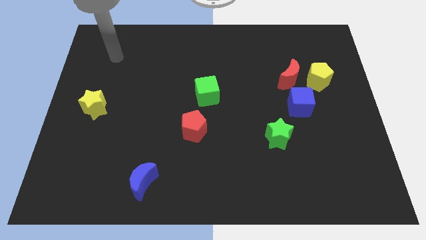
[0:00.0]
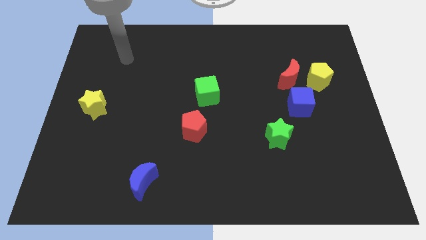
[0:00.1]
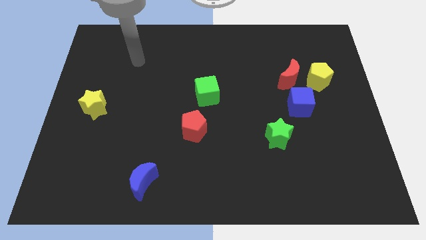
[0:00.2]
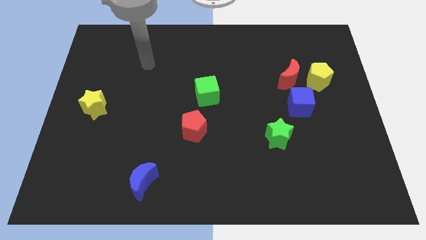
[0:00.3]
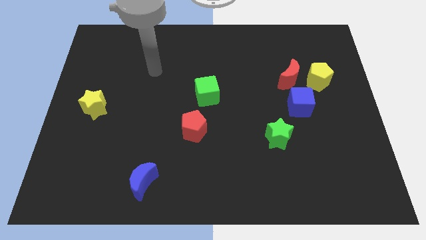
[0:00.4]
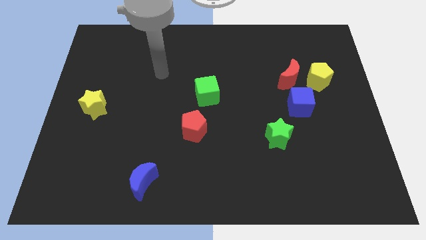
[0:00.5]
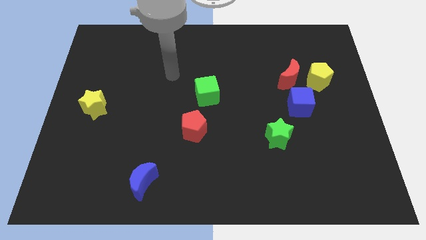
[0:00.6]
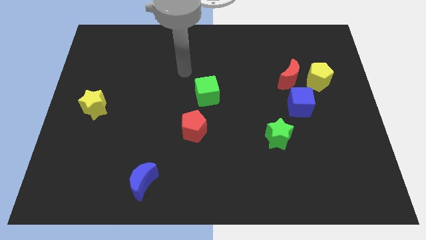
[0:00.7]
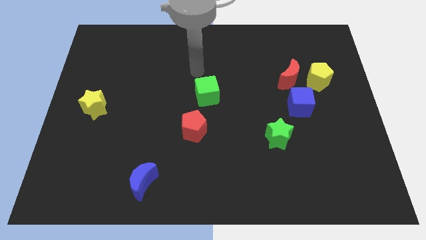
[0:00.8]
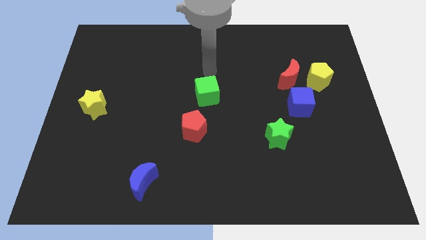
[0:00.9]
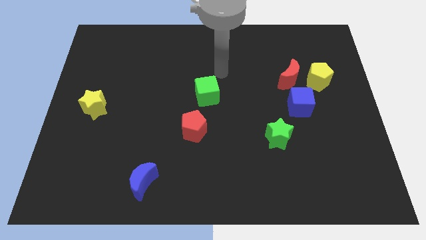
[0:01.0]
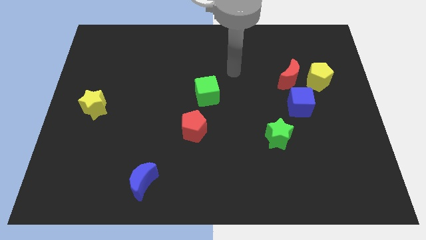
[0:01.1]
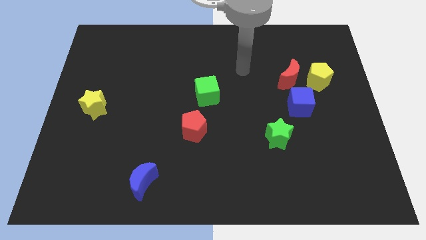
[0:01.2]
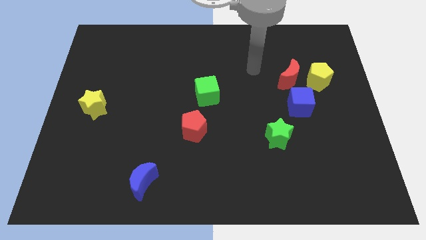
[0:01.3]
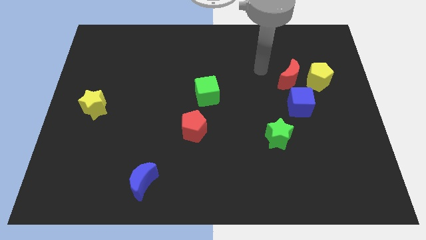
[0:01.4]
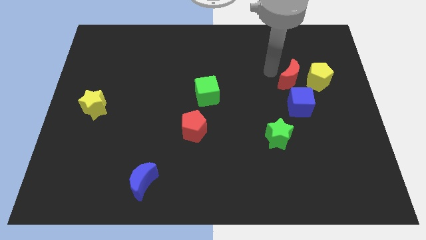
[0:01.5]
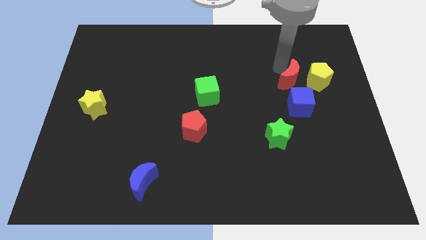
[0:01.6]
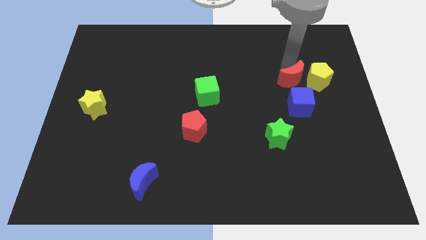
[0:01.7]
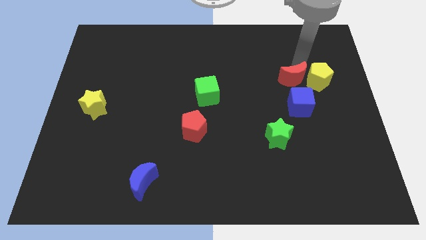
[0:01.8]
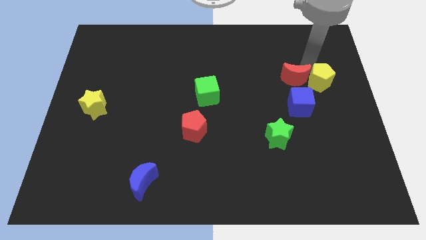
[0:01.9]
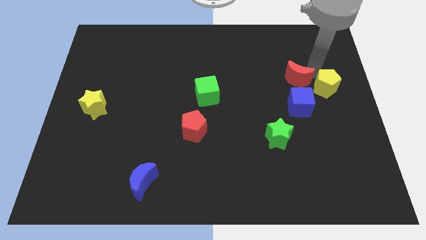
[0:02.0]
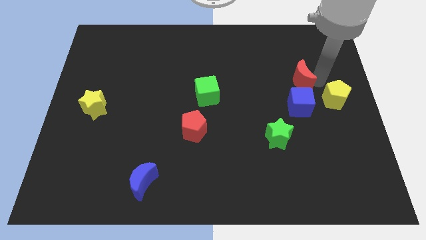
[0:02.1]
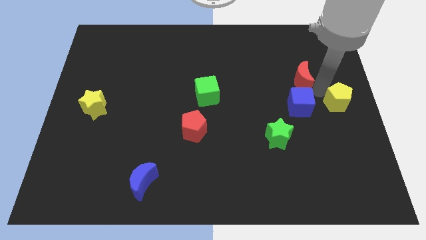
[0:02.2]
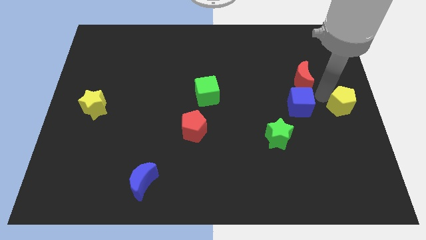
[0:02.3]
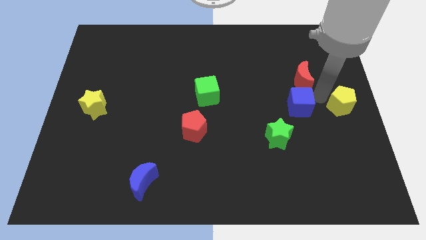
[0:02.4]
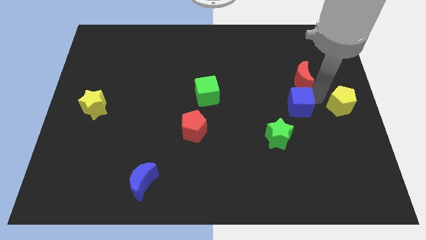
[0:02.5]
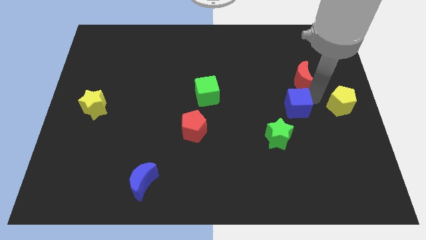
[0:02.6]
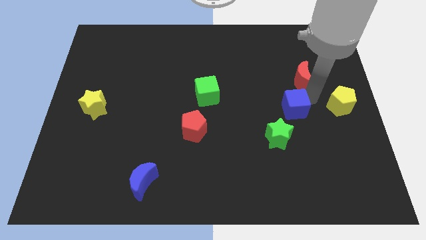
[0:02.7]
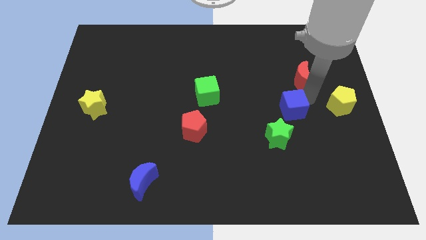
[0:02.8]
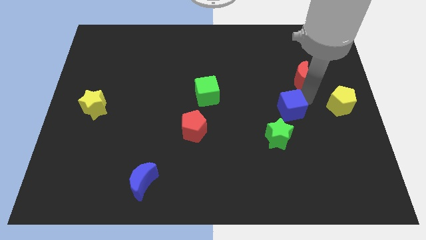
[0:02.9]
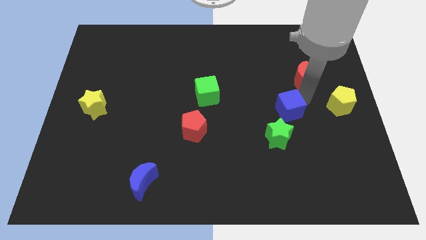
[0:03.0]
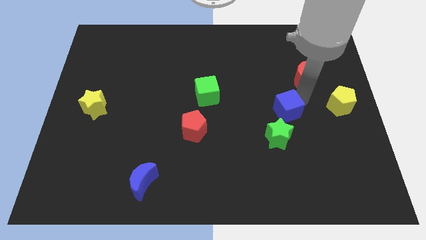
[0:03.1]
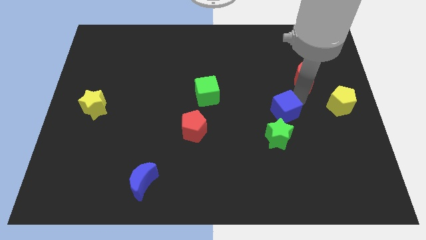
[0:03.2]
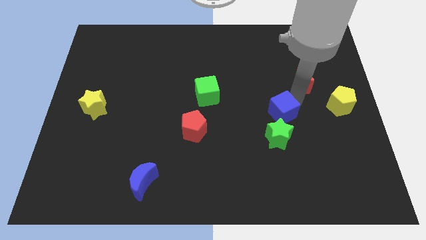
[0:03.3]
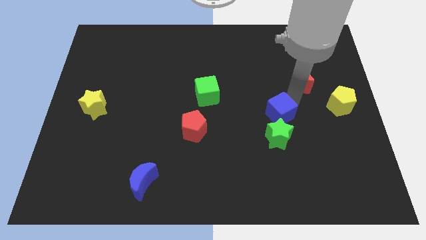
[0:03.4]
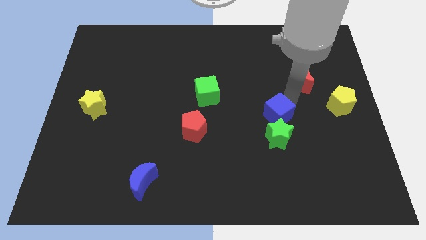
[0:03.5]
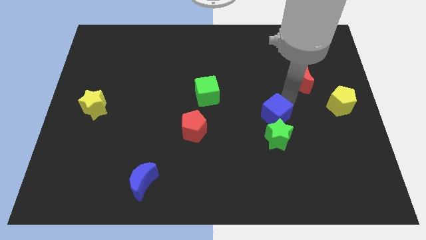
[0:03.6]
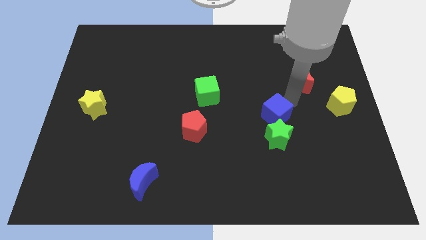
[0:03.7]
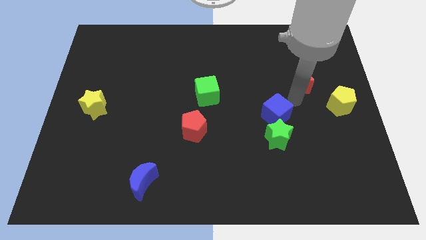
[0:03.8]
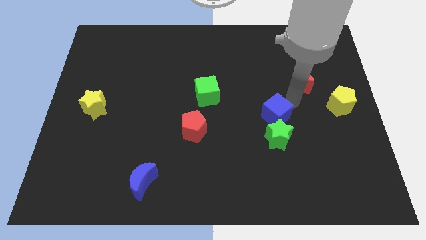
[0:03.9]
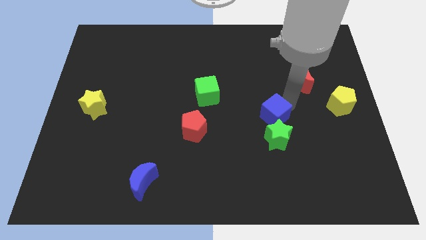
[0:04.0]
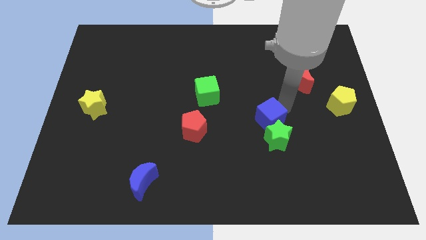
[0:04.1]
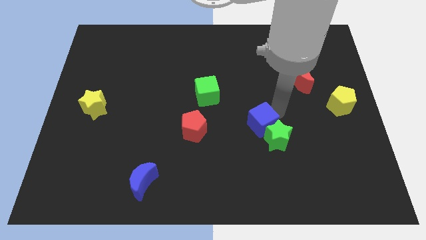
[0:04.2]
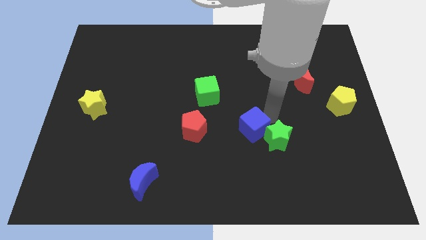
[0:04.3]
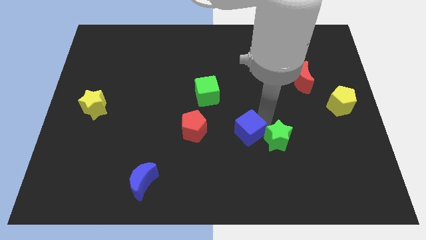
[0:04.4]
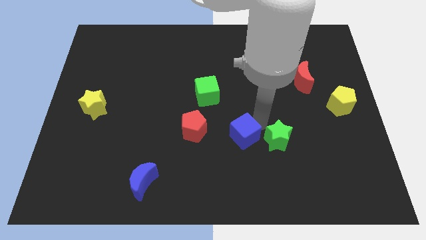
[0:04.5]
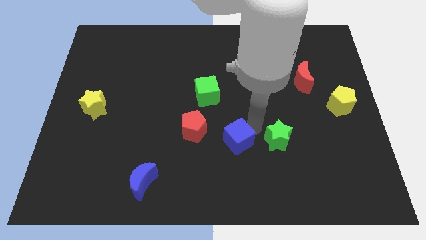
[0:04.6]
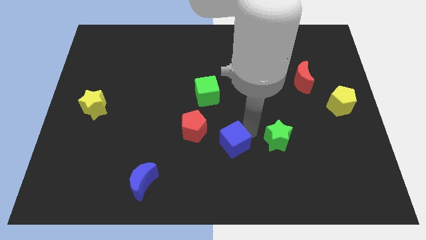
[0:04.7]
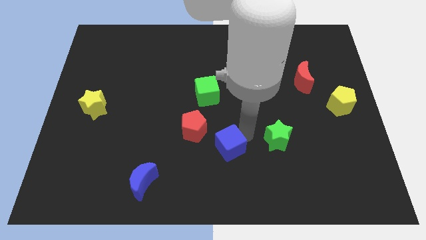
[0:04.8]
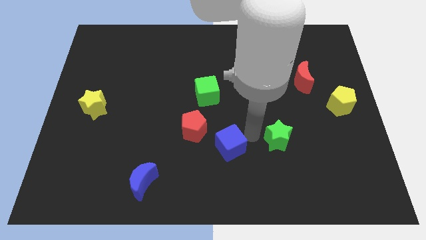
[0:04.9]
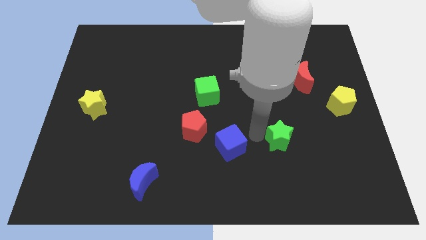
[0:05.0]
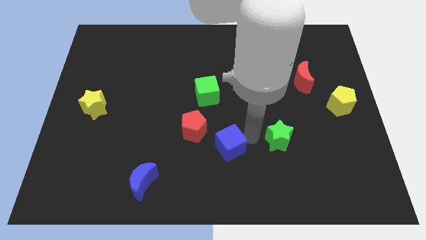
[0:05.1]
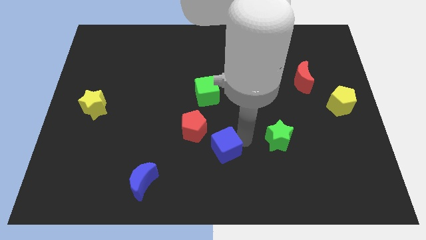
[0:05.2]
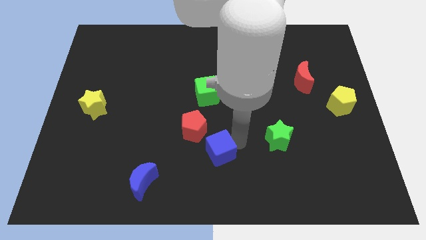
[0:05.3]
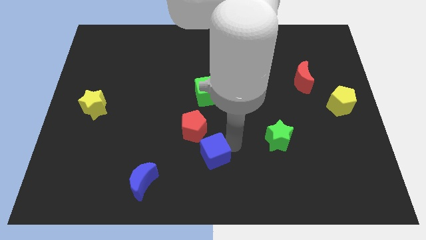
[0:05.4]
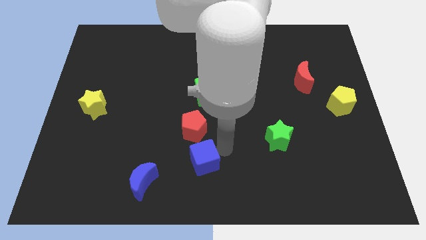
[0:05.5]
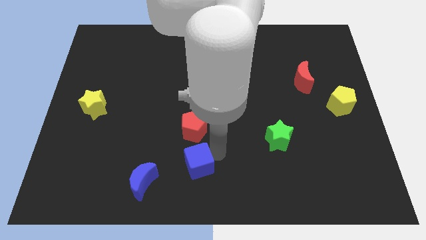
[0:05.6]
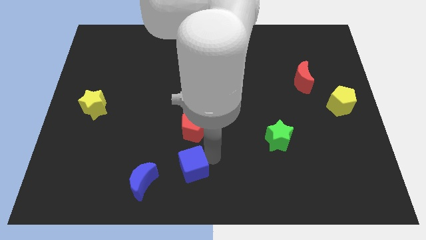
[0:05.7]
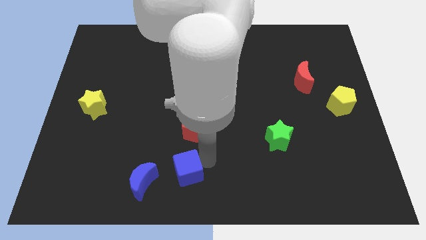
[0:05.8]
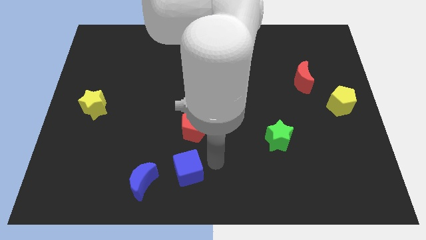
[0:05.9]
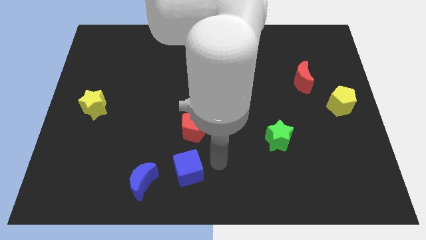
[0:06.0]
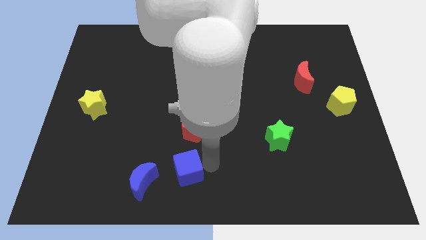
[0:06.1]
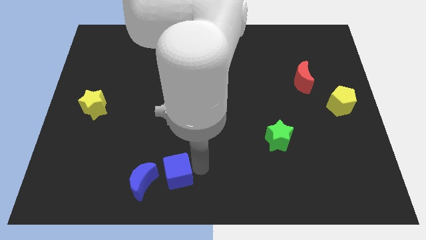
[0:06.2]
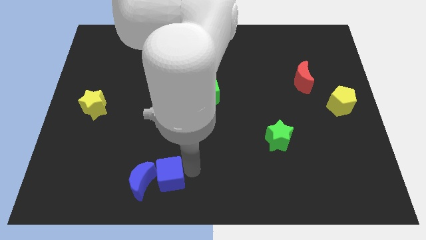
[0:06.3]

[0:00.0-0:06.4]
slide the blue cube close to the blue moon
